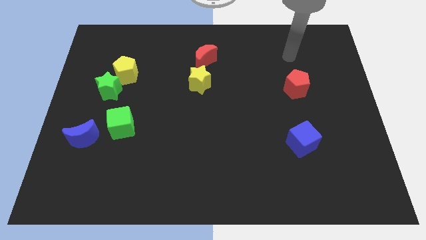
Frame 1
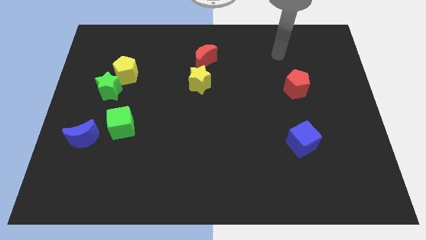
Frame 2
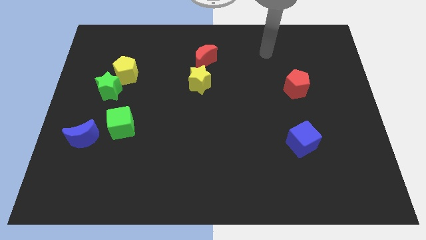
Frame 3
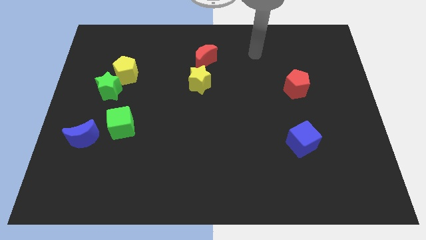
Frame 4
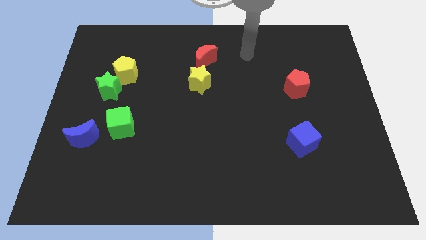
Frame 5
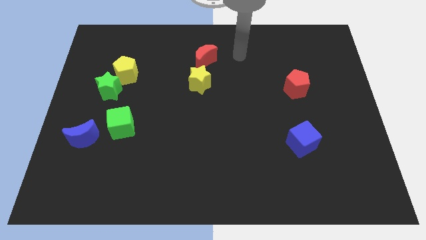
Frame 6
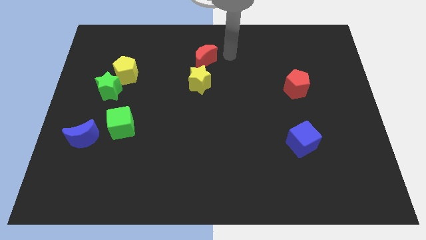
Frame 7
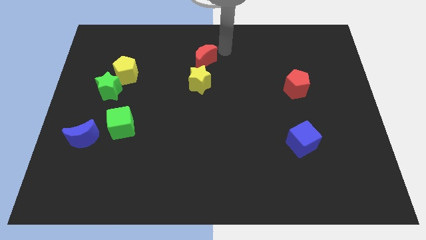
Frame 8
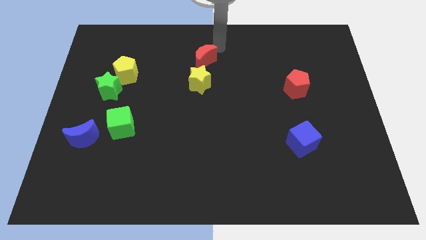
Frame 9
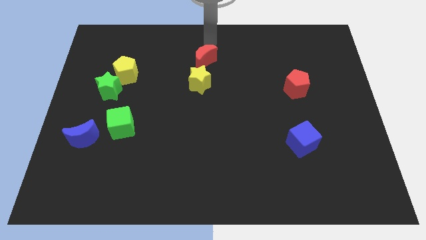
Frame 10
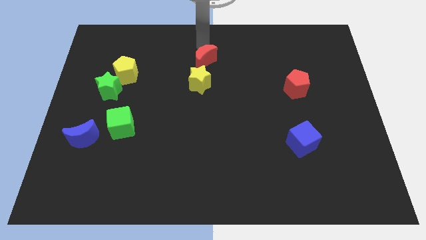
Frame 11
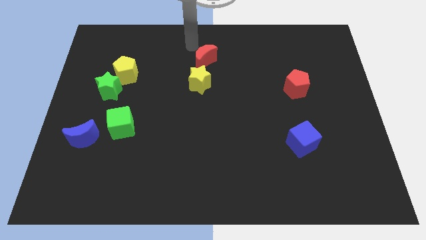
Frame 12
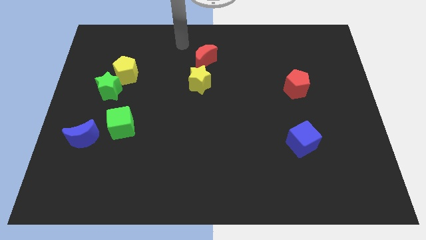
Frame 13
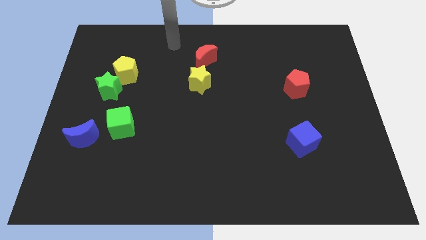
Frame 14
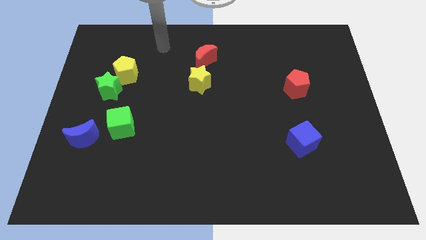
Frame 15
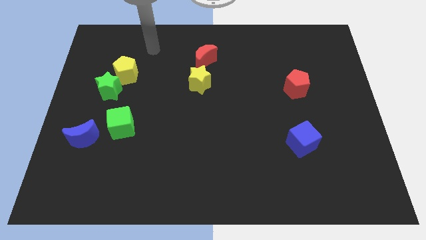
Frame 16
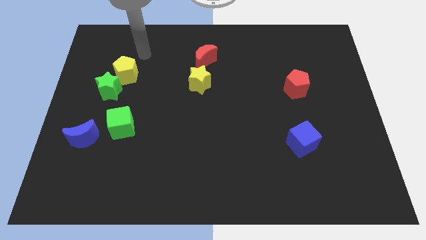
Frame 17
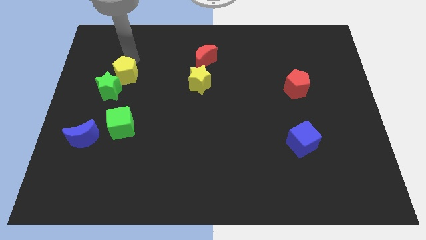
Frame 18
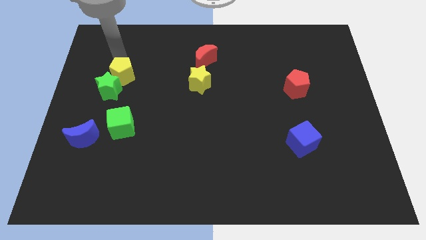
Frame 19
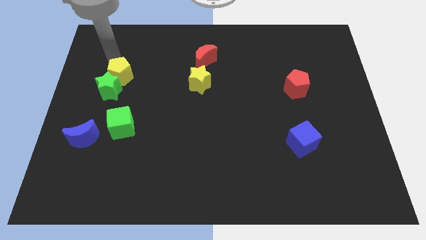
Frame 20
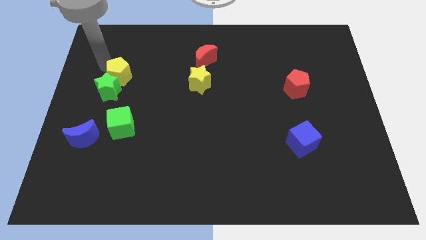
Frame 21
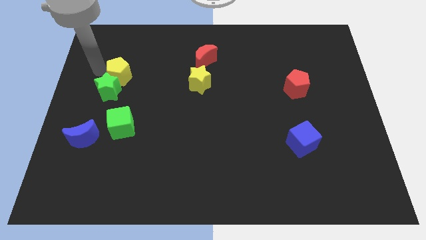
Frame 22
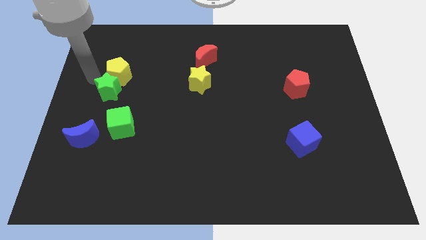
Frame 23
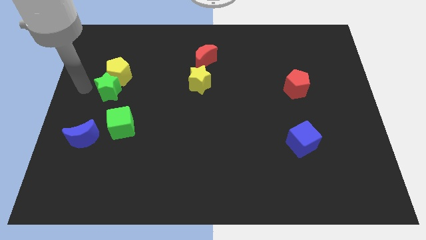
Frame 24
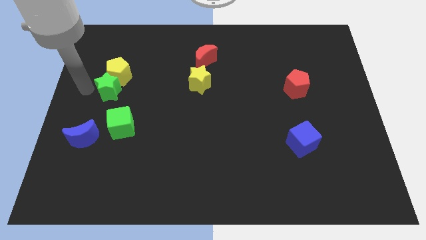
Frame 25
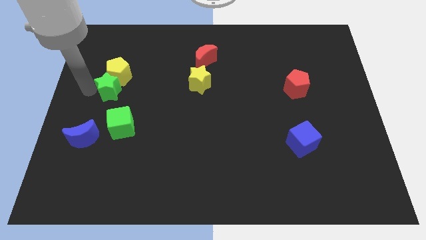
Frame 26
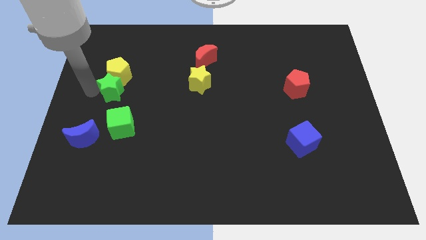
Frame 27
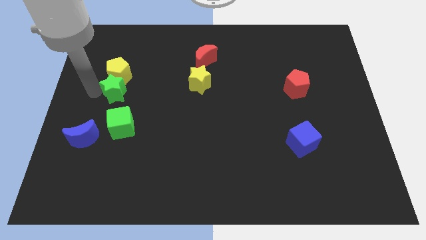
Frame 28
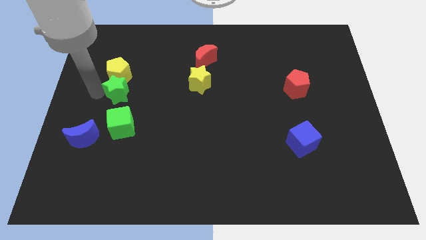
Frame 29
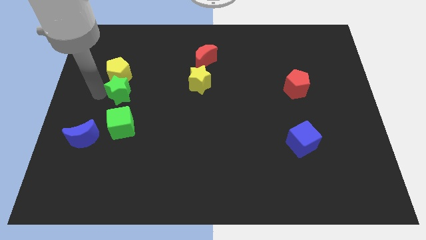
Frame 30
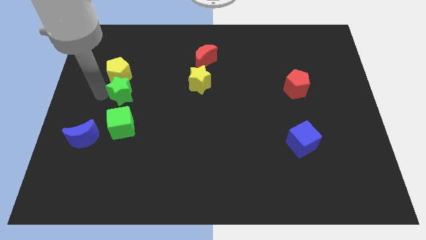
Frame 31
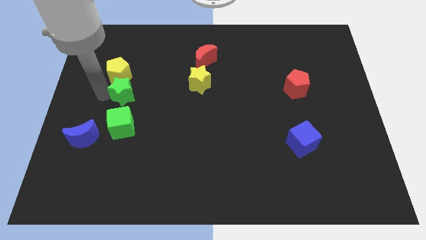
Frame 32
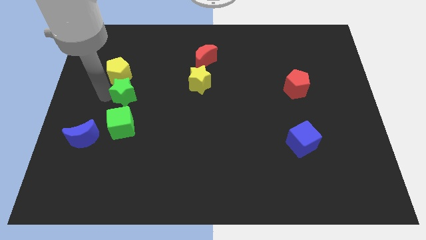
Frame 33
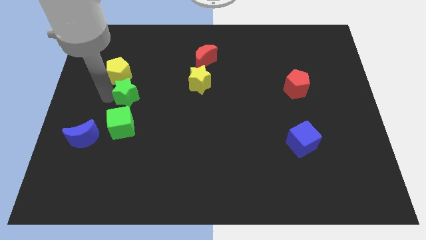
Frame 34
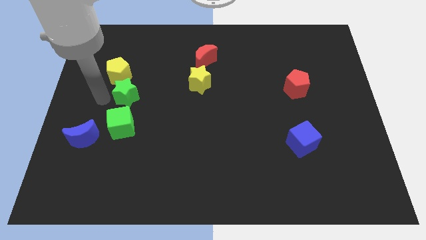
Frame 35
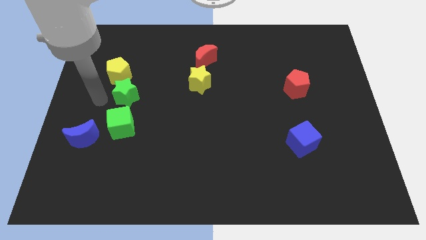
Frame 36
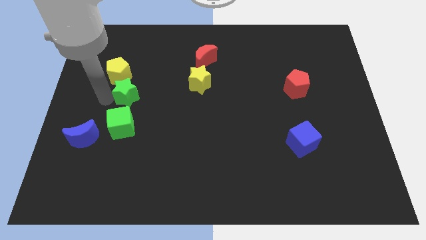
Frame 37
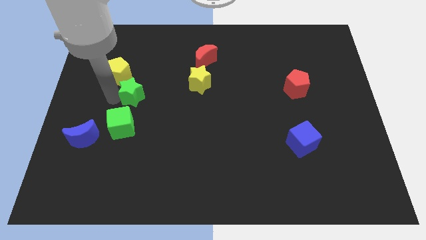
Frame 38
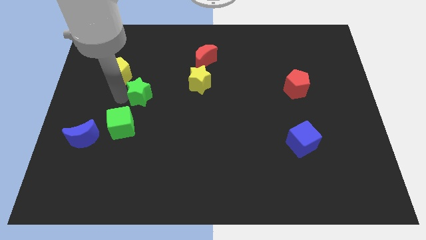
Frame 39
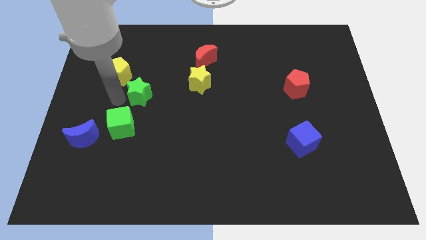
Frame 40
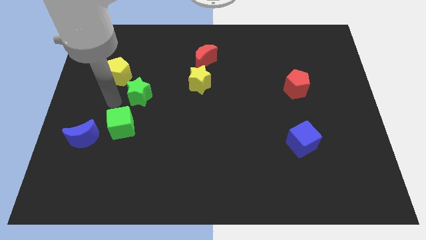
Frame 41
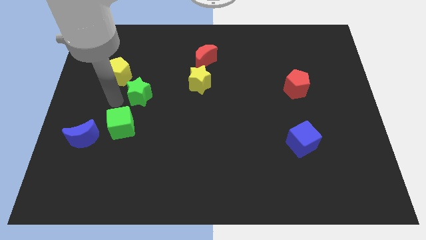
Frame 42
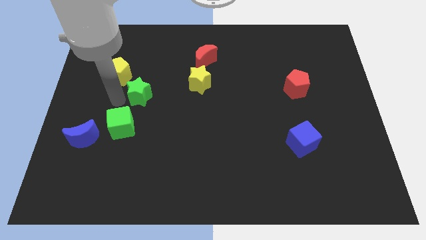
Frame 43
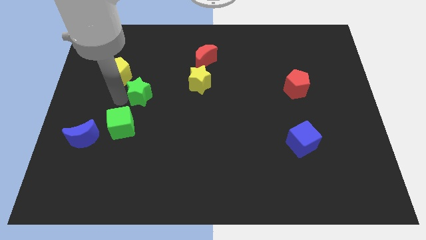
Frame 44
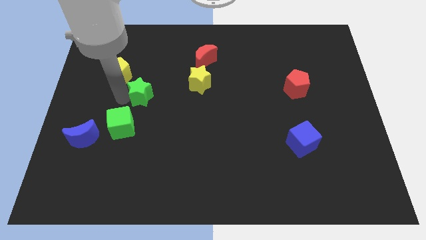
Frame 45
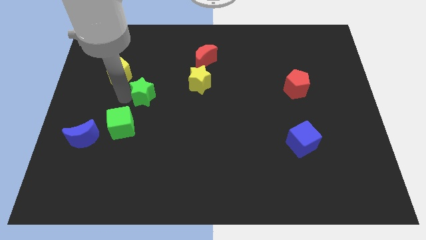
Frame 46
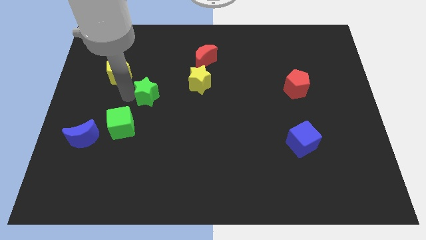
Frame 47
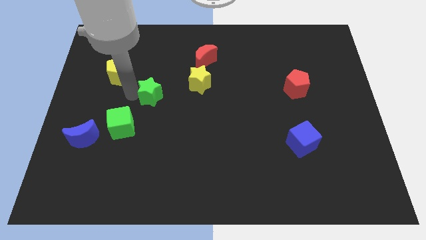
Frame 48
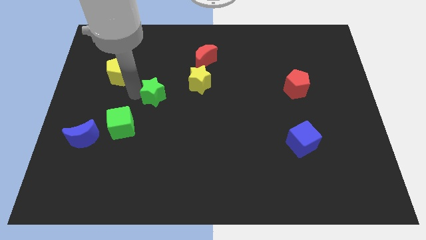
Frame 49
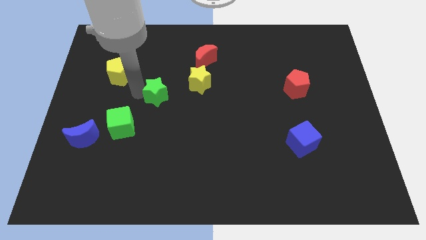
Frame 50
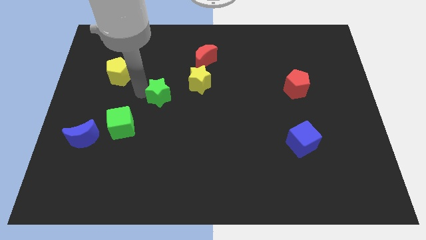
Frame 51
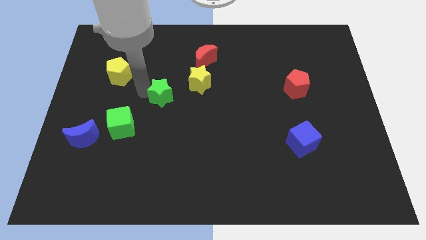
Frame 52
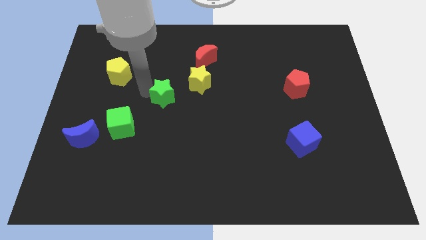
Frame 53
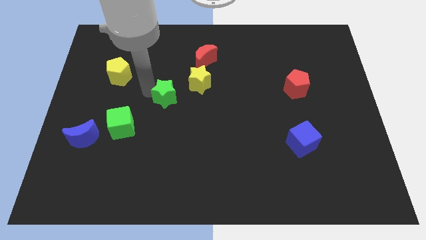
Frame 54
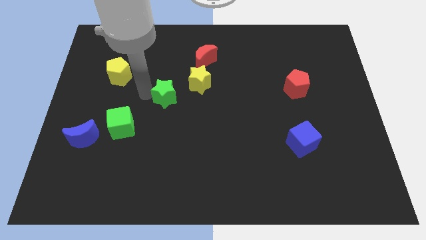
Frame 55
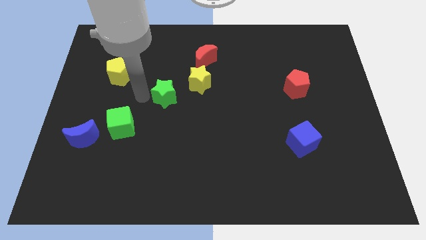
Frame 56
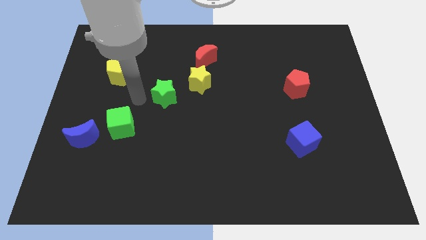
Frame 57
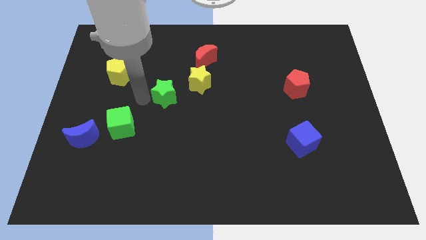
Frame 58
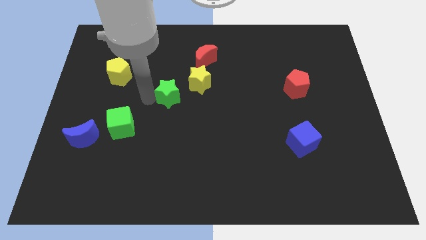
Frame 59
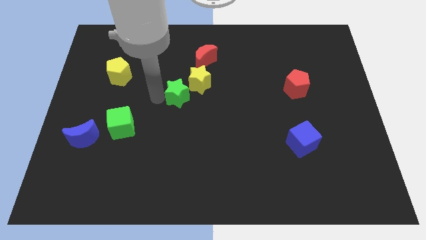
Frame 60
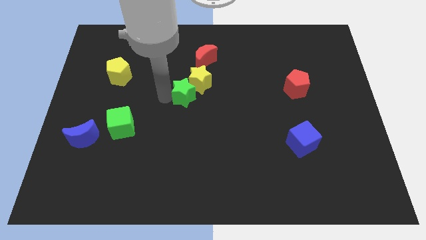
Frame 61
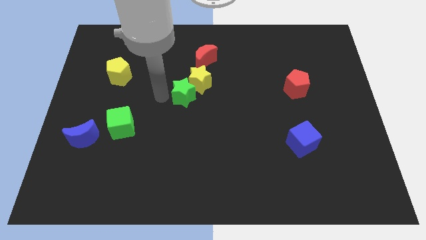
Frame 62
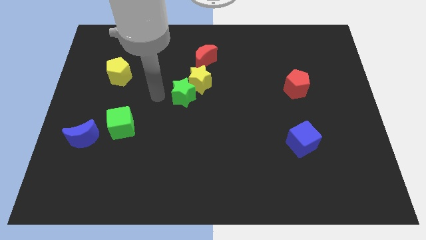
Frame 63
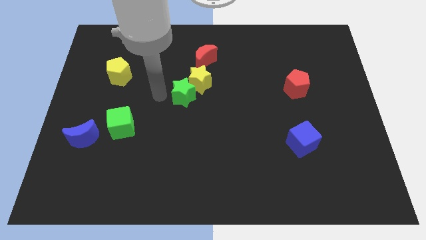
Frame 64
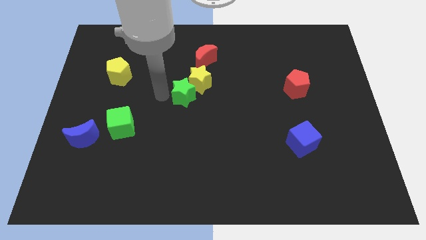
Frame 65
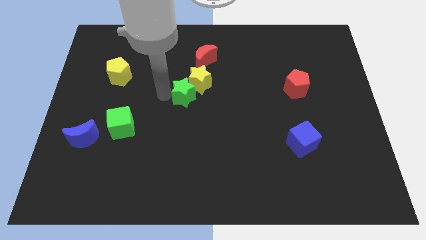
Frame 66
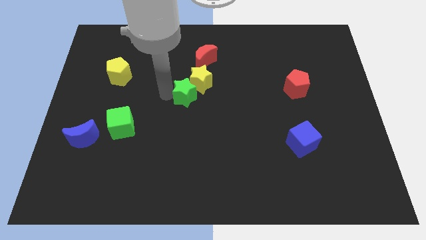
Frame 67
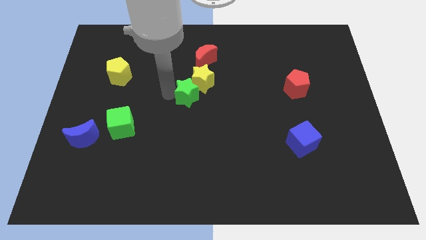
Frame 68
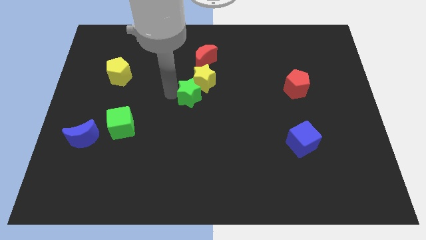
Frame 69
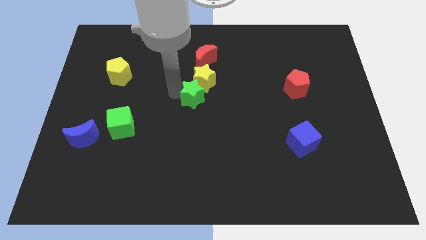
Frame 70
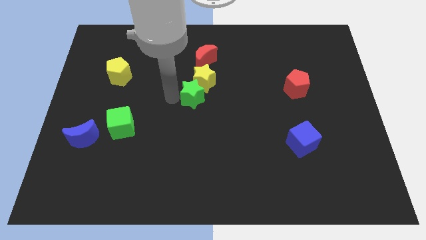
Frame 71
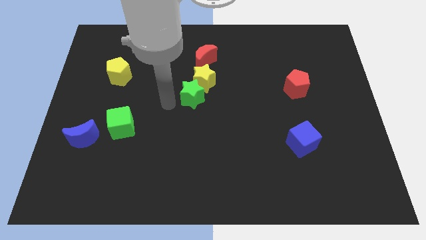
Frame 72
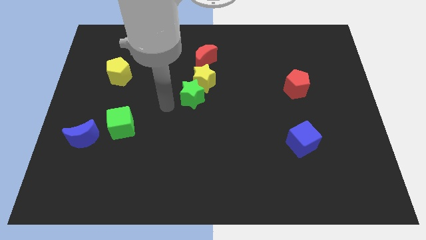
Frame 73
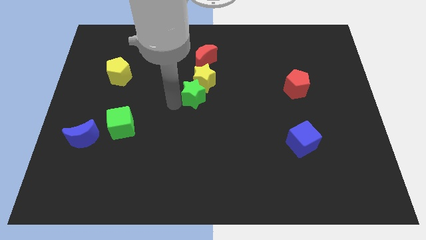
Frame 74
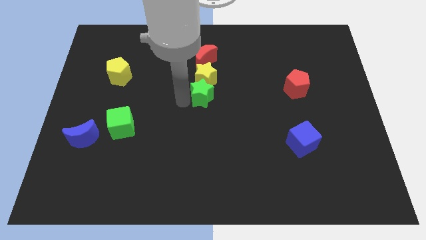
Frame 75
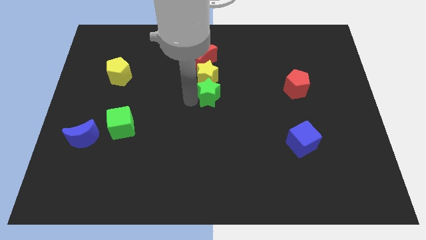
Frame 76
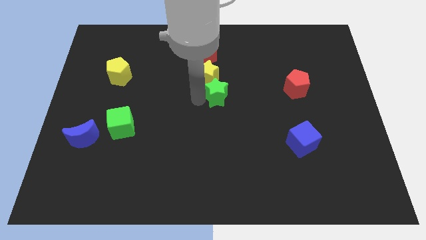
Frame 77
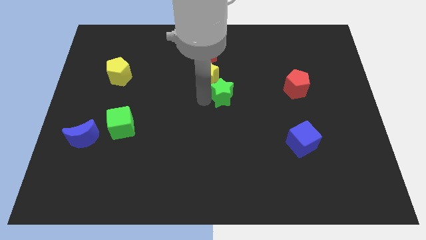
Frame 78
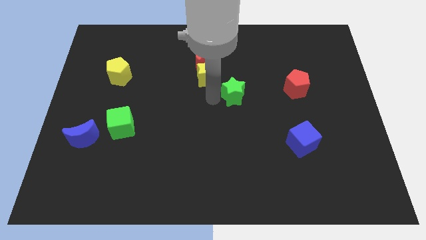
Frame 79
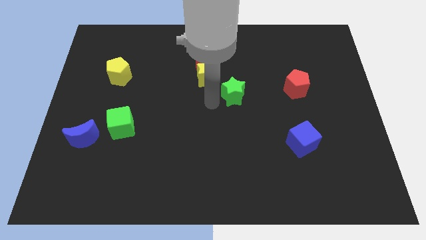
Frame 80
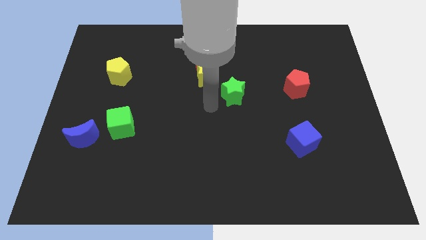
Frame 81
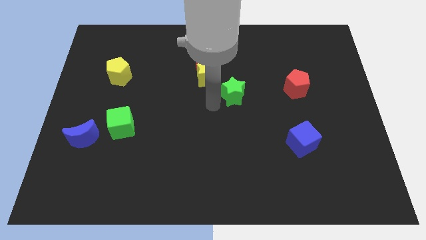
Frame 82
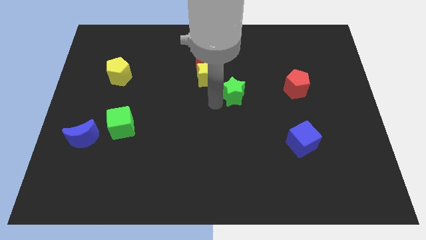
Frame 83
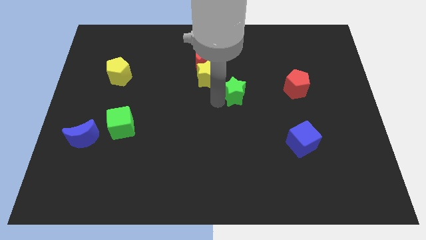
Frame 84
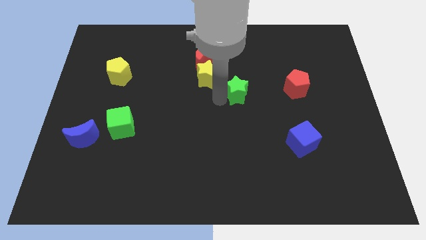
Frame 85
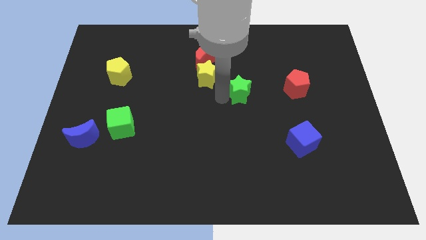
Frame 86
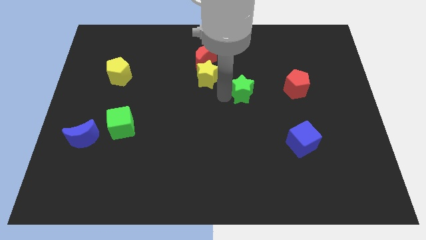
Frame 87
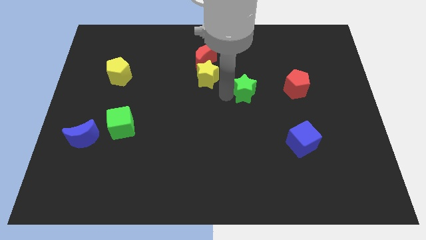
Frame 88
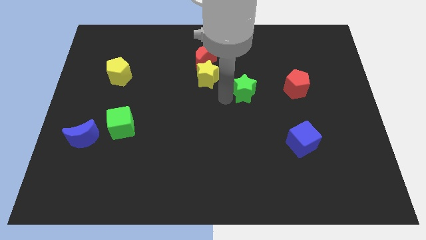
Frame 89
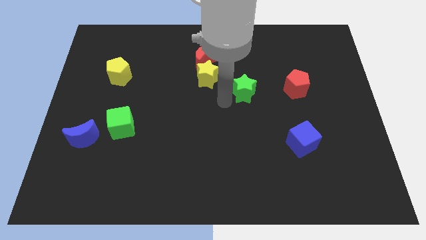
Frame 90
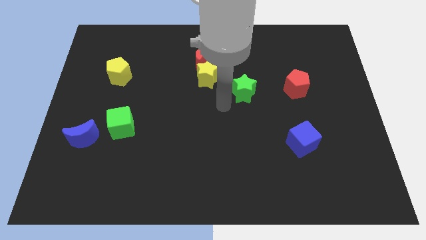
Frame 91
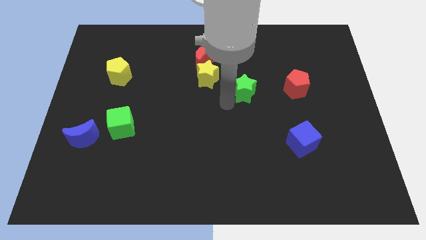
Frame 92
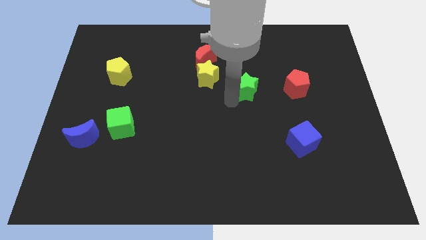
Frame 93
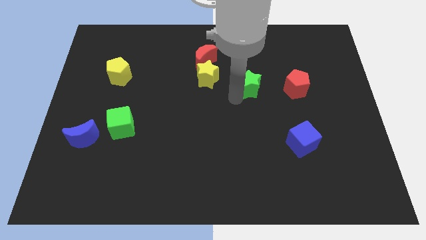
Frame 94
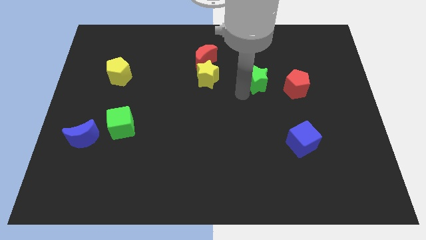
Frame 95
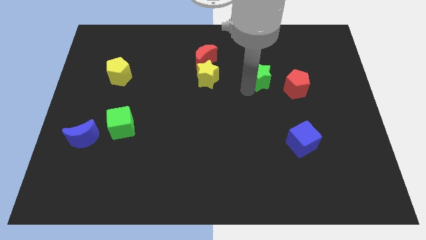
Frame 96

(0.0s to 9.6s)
put the green star to the top left side of the red pentagon
